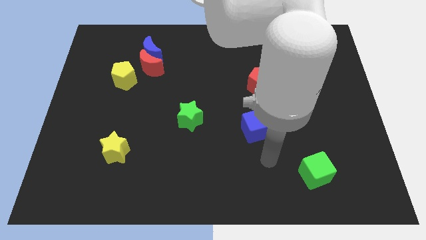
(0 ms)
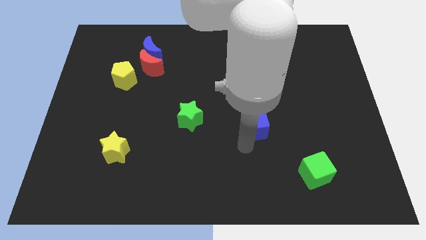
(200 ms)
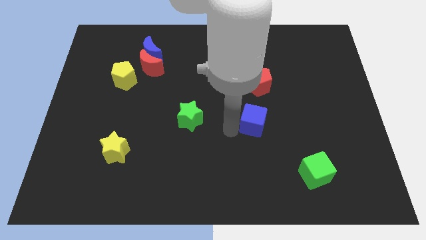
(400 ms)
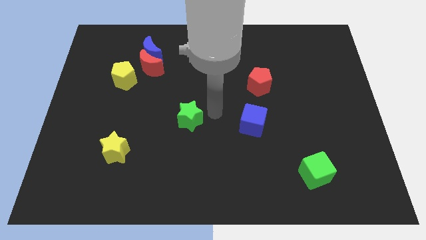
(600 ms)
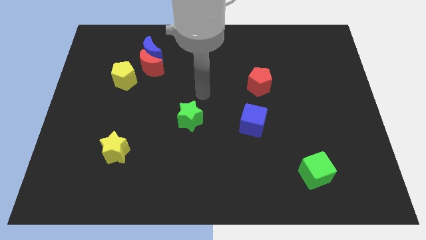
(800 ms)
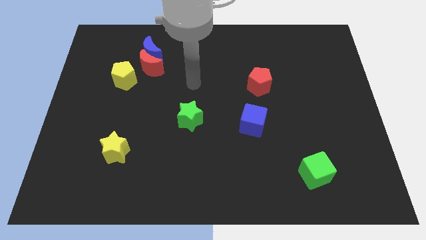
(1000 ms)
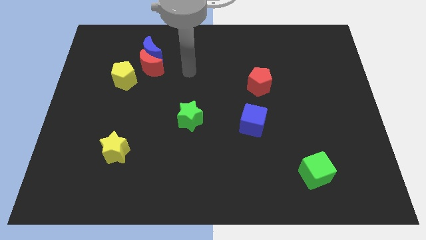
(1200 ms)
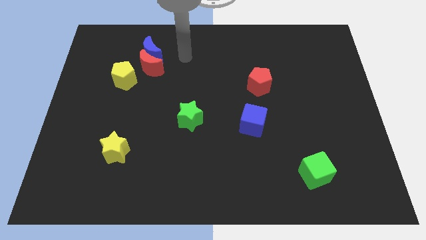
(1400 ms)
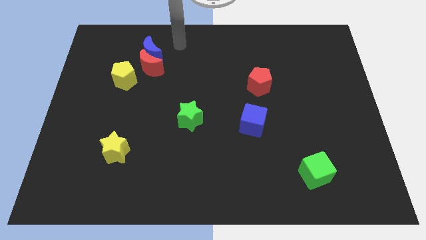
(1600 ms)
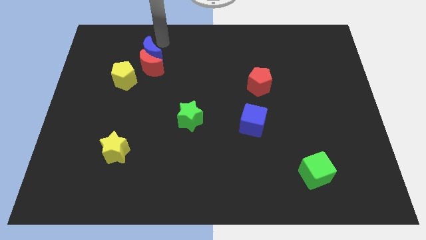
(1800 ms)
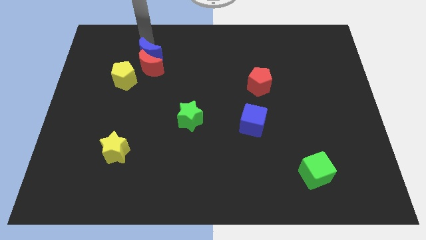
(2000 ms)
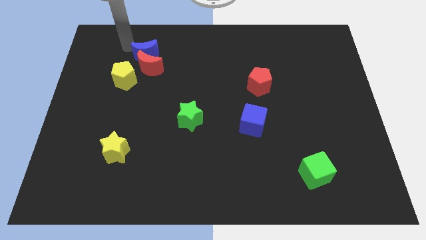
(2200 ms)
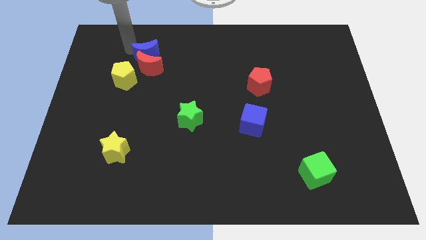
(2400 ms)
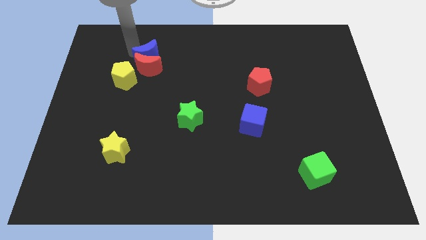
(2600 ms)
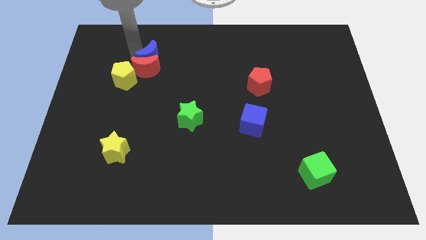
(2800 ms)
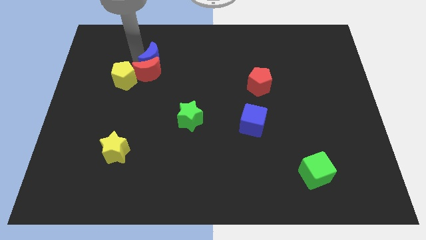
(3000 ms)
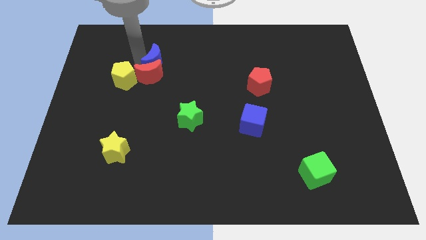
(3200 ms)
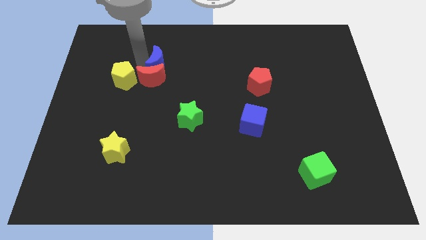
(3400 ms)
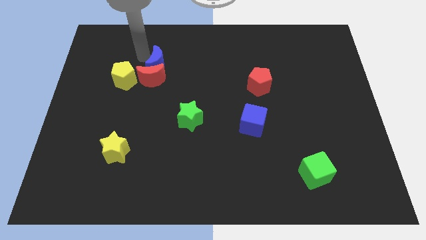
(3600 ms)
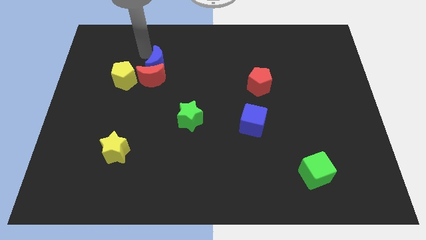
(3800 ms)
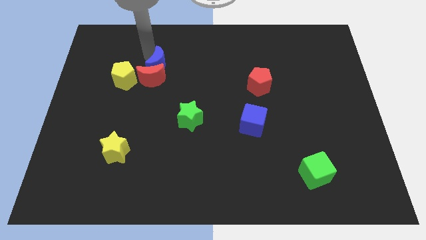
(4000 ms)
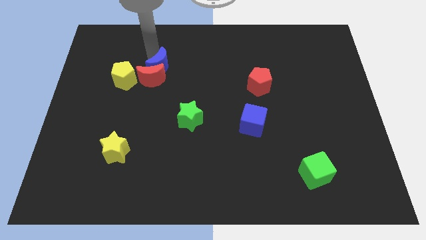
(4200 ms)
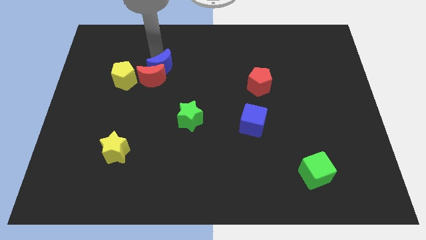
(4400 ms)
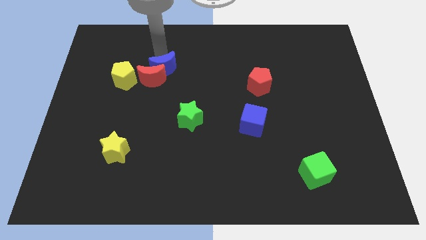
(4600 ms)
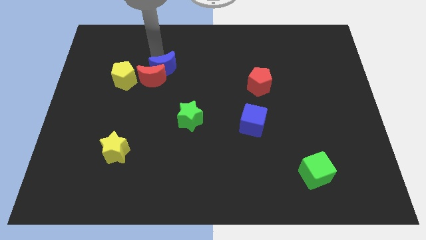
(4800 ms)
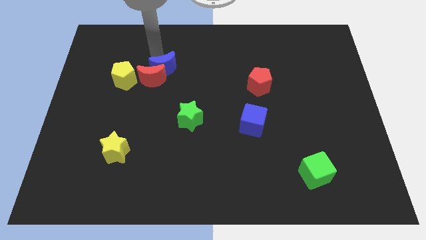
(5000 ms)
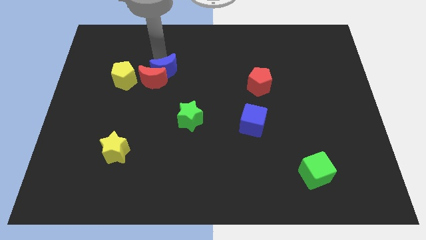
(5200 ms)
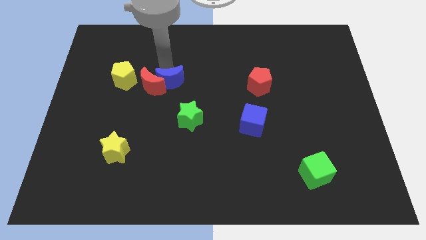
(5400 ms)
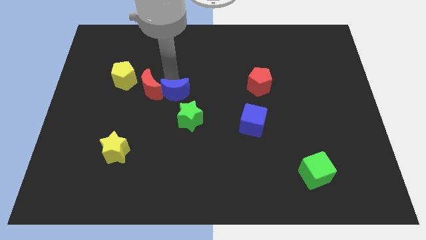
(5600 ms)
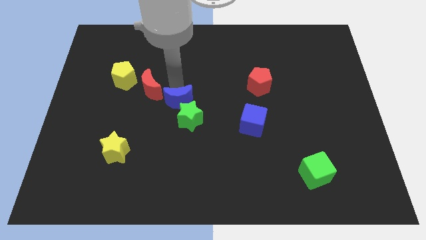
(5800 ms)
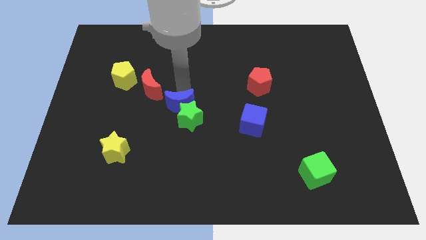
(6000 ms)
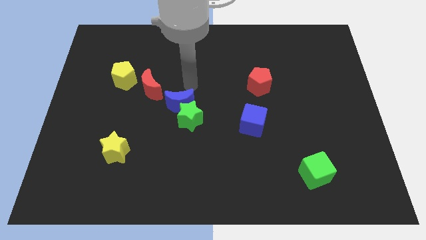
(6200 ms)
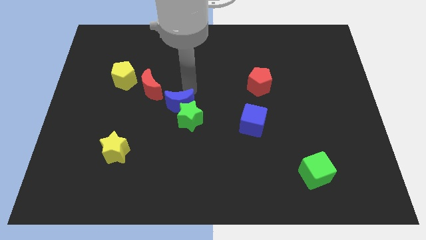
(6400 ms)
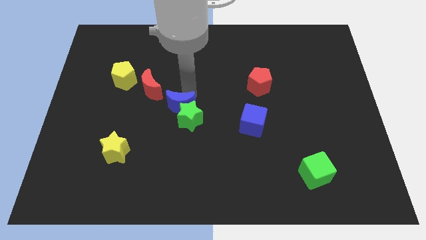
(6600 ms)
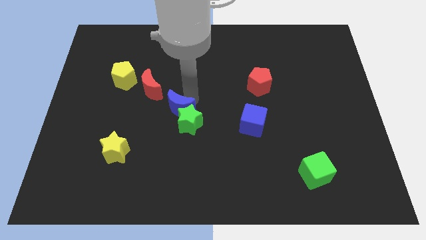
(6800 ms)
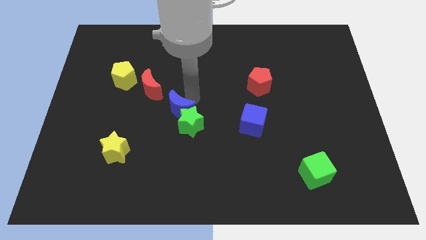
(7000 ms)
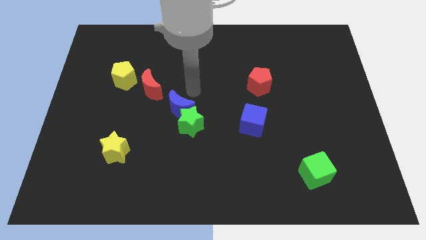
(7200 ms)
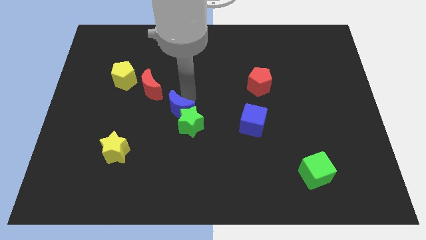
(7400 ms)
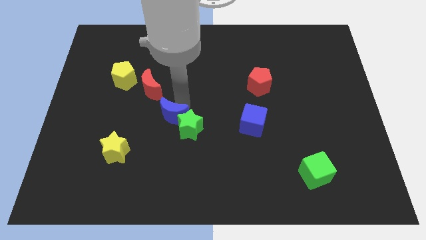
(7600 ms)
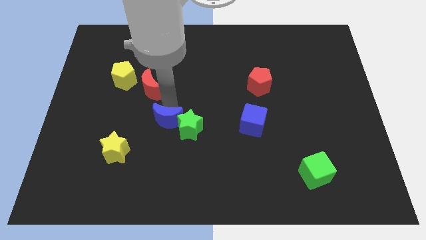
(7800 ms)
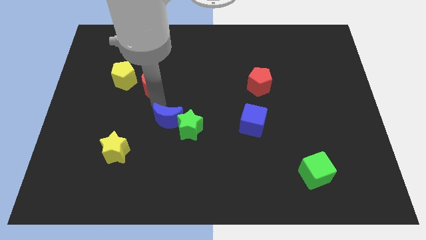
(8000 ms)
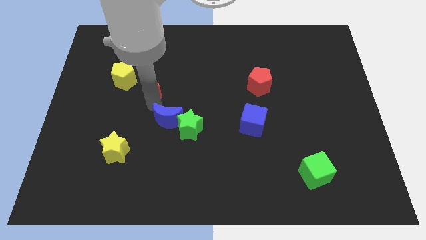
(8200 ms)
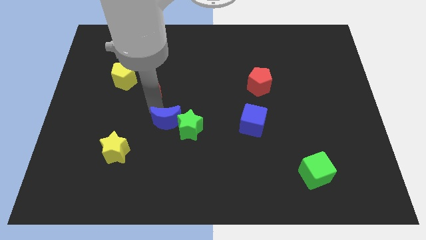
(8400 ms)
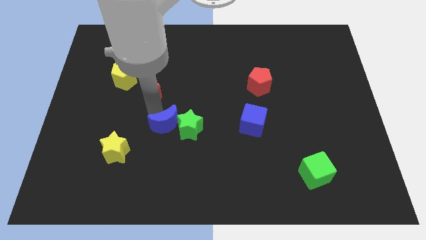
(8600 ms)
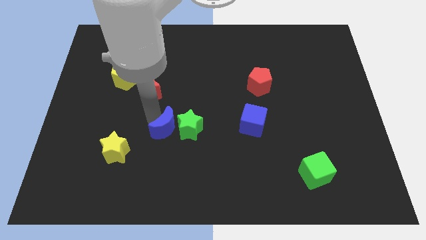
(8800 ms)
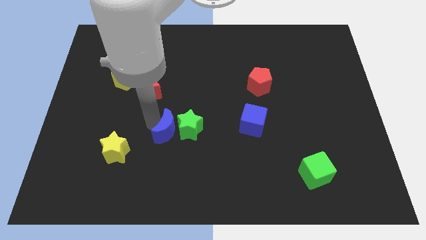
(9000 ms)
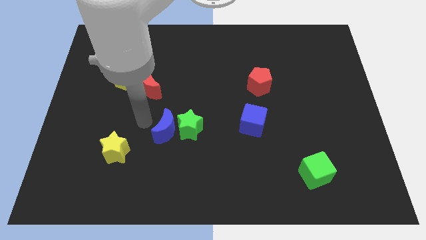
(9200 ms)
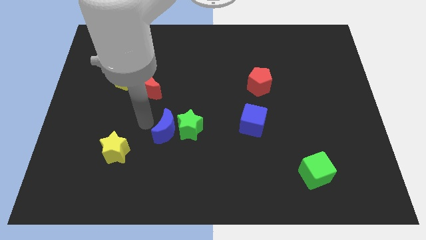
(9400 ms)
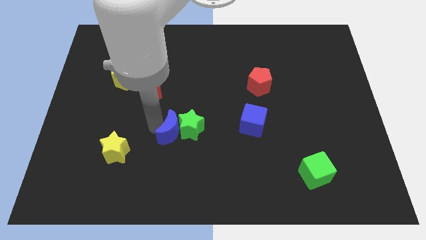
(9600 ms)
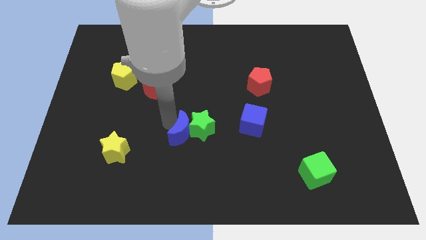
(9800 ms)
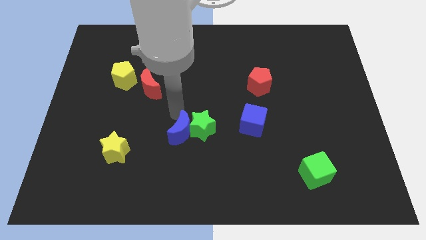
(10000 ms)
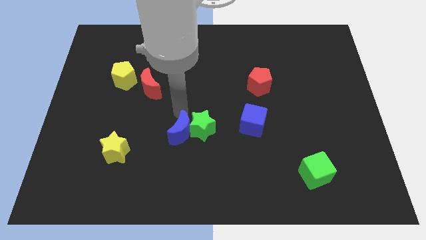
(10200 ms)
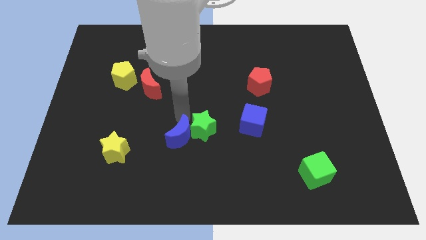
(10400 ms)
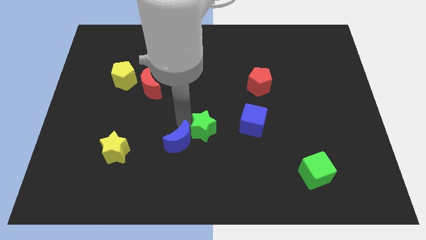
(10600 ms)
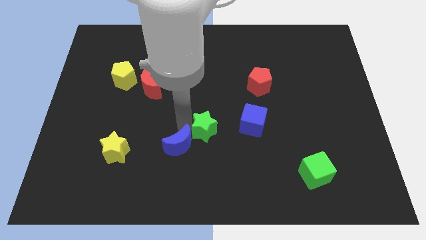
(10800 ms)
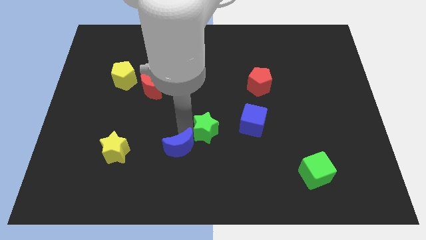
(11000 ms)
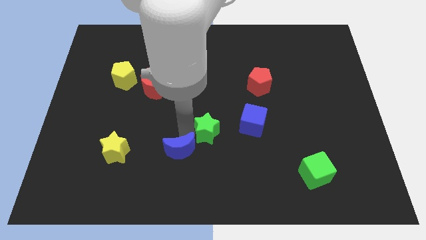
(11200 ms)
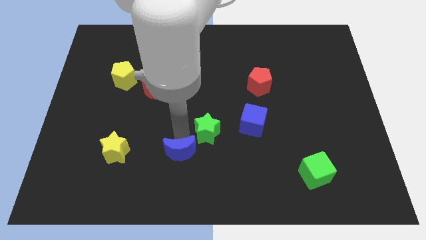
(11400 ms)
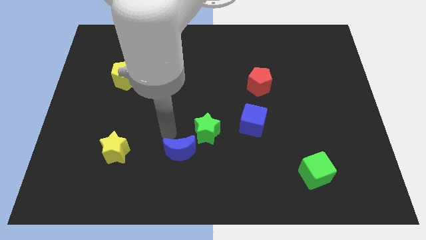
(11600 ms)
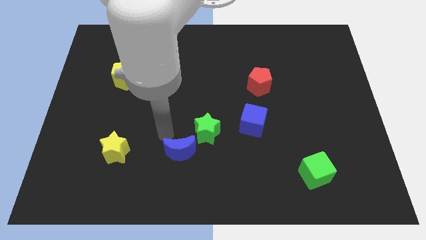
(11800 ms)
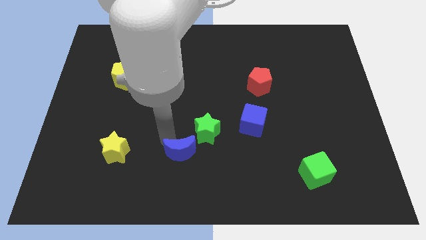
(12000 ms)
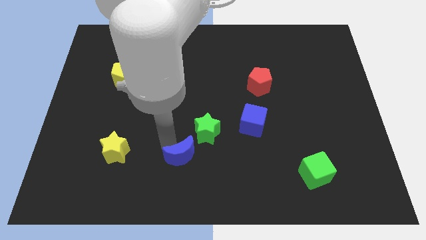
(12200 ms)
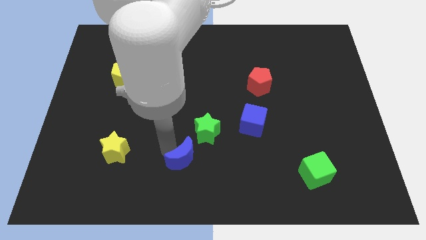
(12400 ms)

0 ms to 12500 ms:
slide the blue moon to the bottom side
